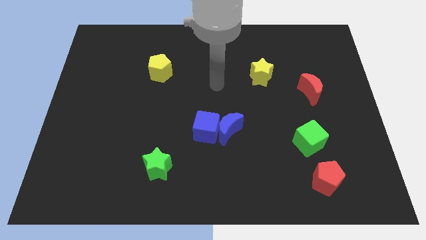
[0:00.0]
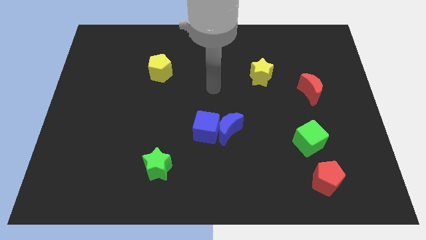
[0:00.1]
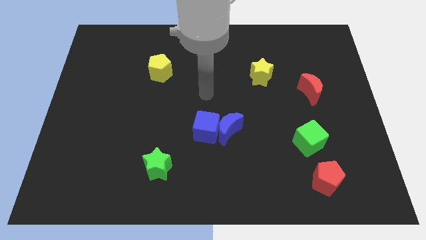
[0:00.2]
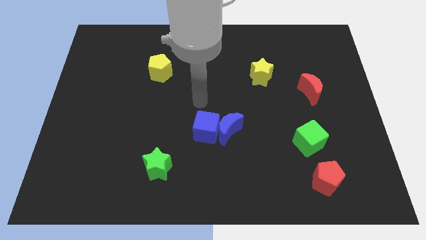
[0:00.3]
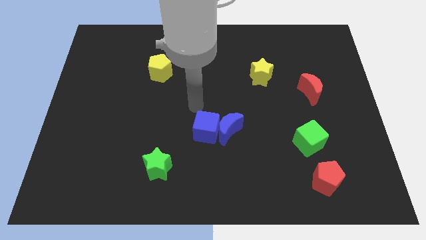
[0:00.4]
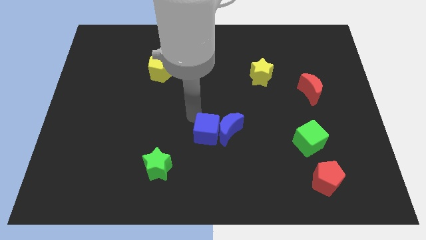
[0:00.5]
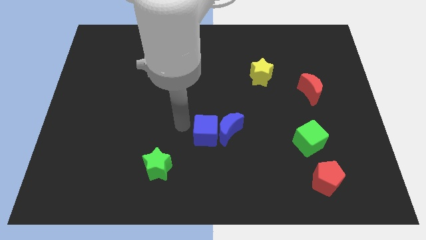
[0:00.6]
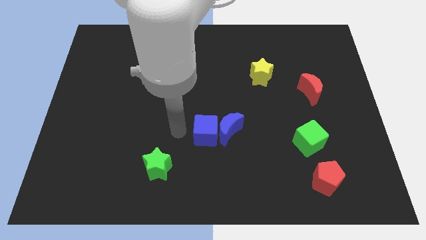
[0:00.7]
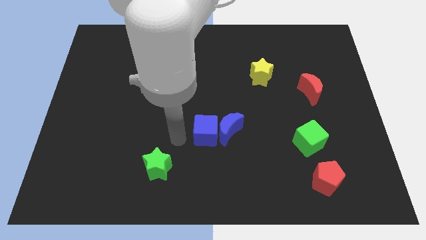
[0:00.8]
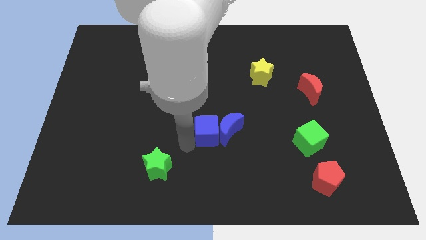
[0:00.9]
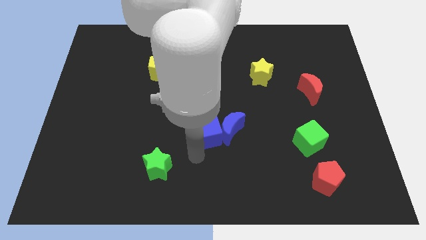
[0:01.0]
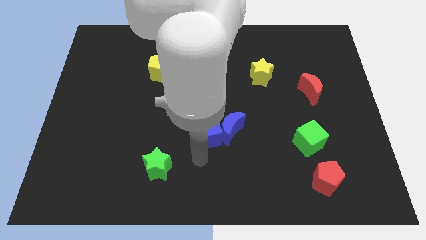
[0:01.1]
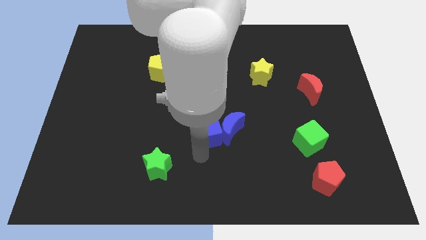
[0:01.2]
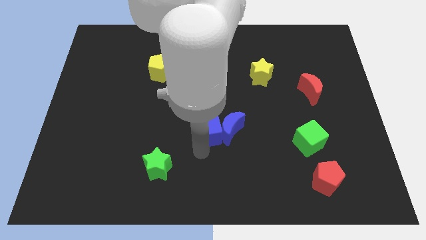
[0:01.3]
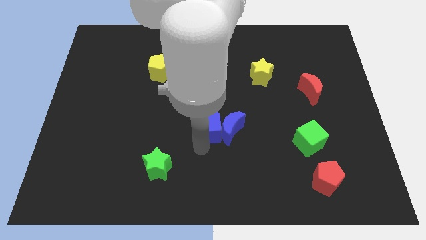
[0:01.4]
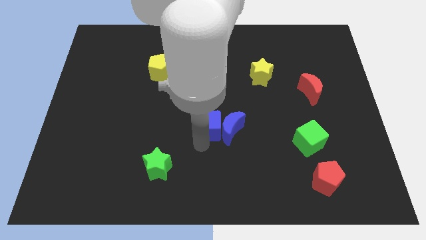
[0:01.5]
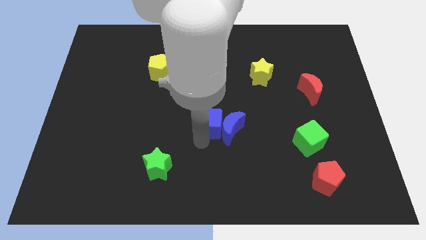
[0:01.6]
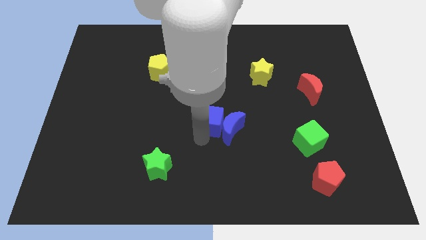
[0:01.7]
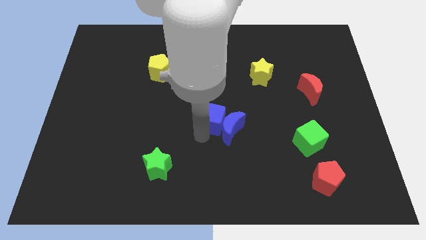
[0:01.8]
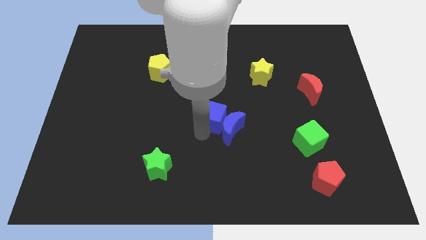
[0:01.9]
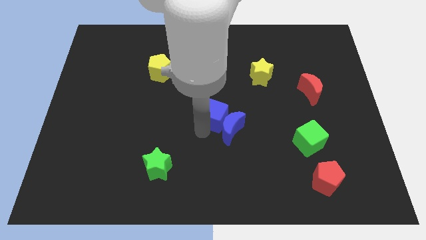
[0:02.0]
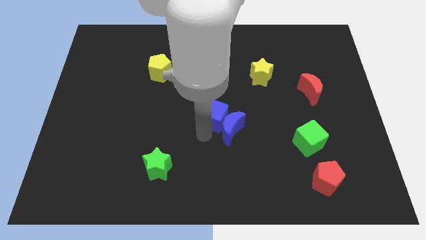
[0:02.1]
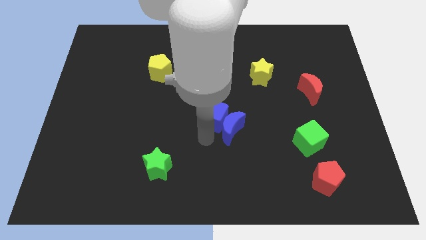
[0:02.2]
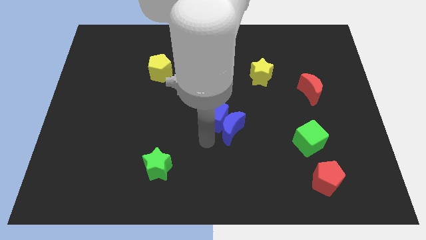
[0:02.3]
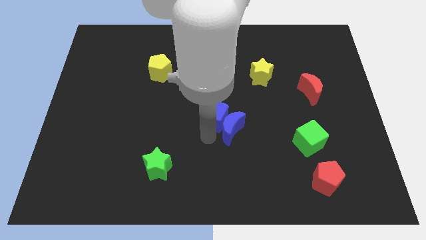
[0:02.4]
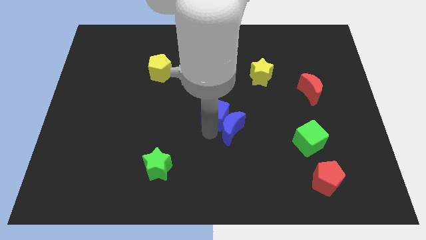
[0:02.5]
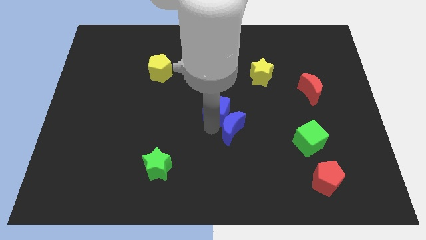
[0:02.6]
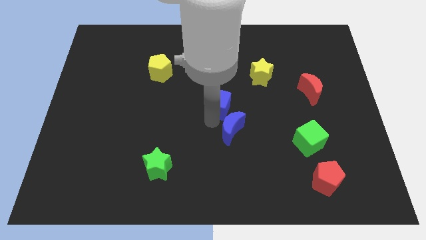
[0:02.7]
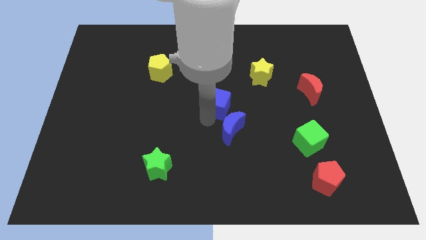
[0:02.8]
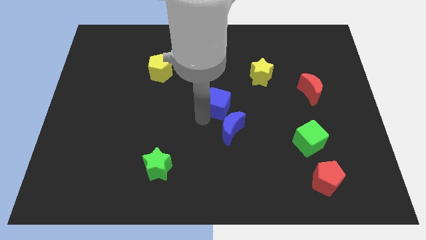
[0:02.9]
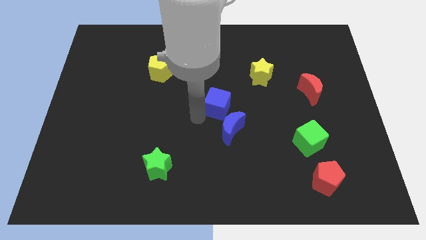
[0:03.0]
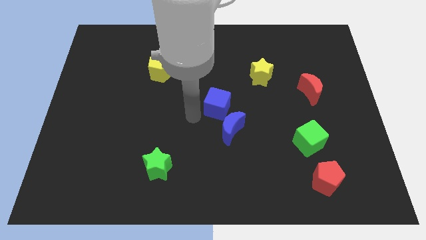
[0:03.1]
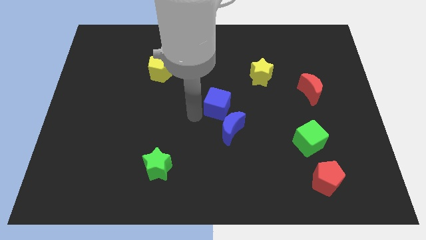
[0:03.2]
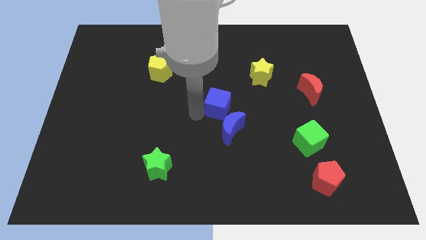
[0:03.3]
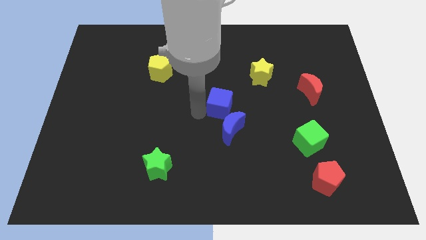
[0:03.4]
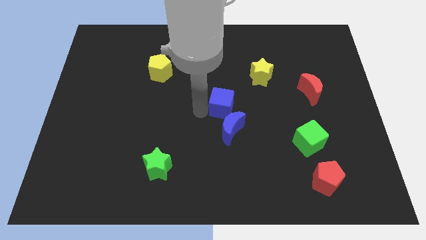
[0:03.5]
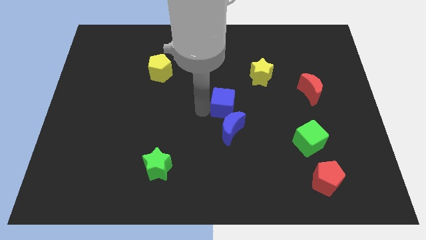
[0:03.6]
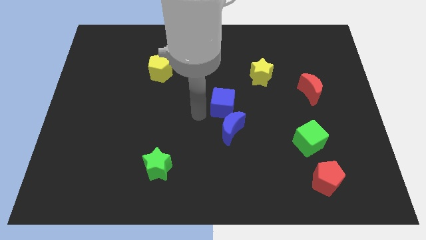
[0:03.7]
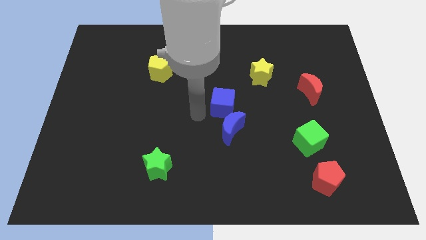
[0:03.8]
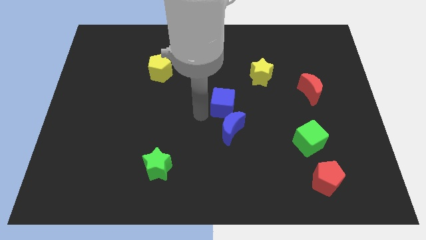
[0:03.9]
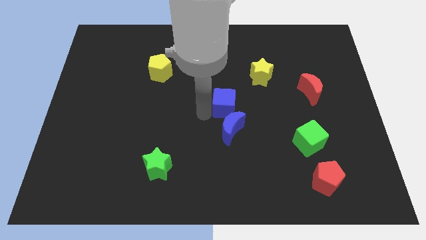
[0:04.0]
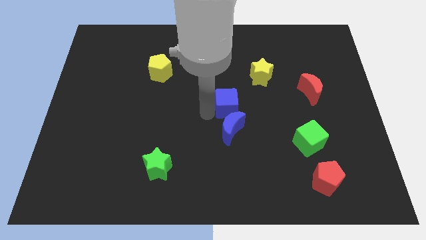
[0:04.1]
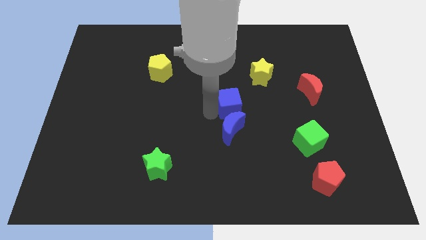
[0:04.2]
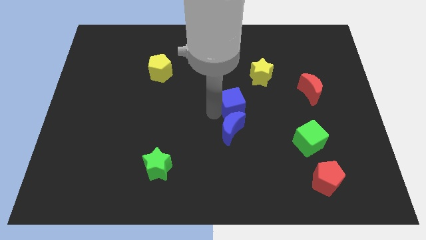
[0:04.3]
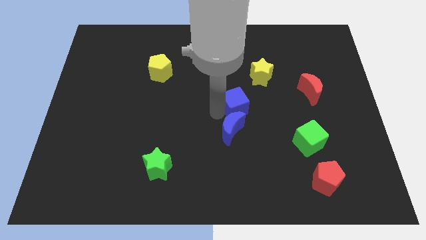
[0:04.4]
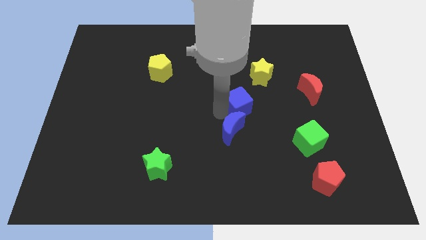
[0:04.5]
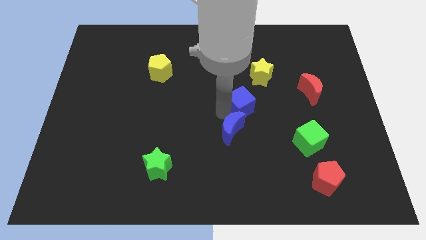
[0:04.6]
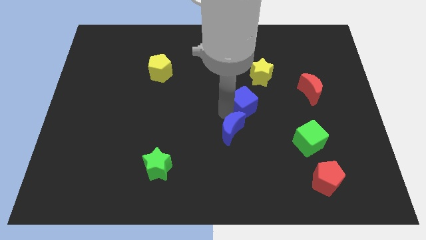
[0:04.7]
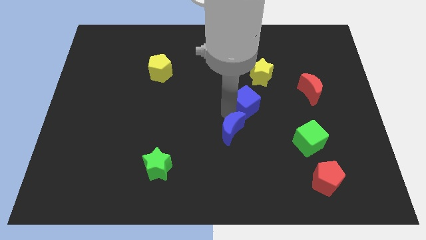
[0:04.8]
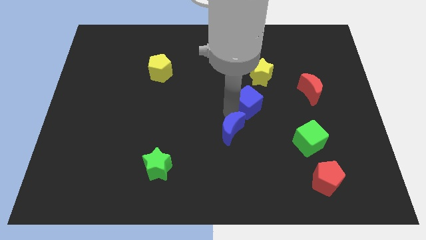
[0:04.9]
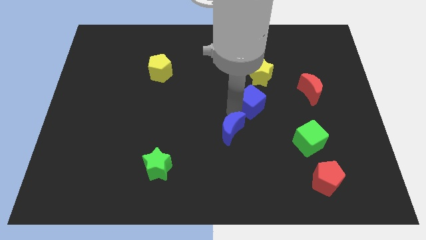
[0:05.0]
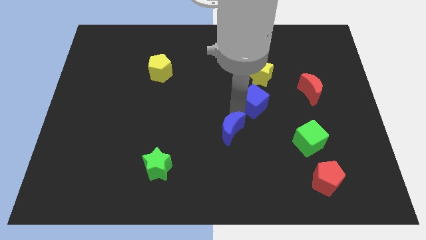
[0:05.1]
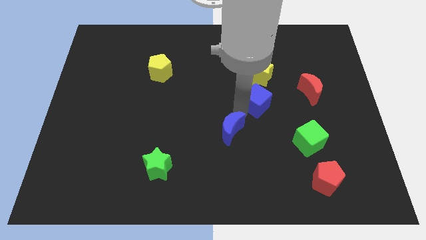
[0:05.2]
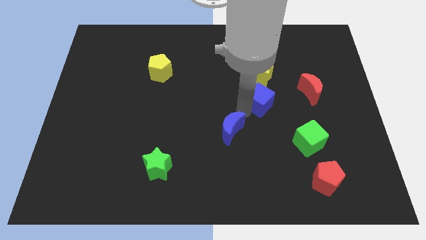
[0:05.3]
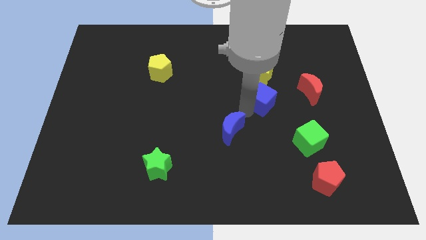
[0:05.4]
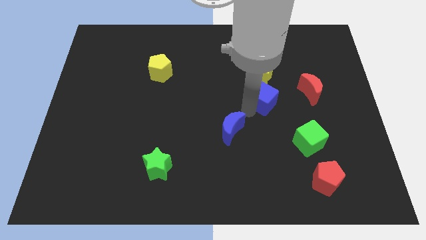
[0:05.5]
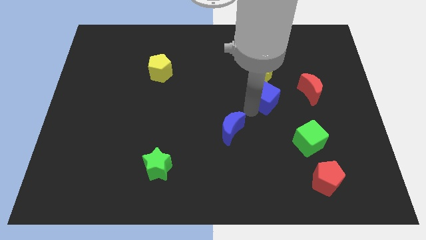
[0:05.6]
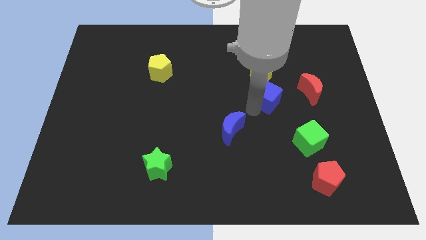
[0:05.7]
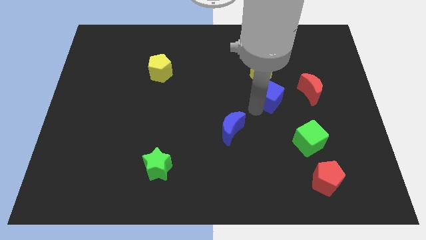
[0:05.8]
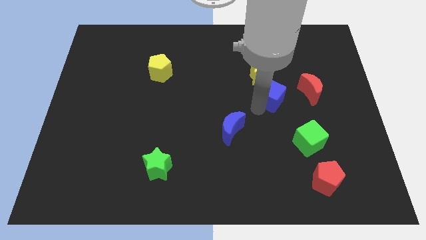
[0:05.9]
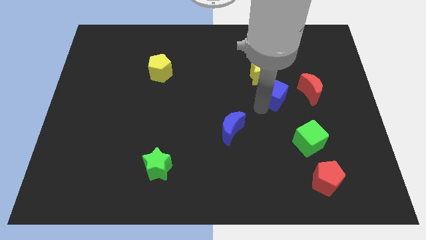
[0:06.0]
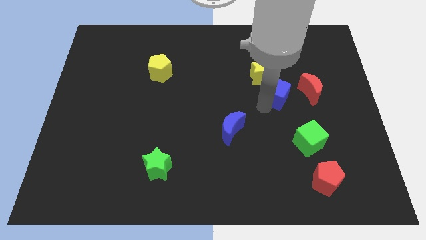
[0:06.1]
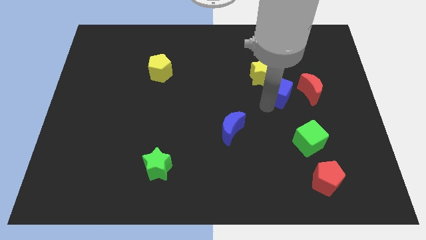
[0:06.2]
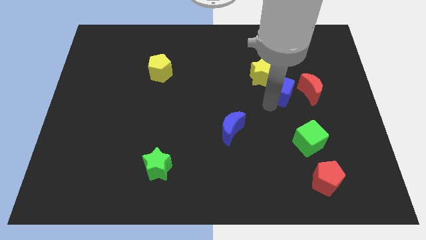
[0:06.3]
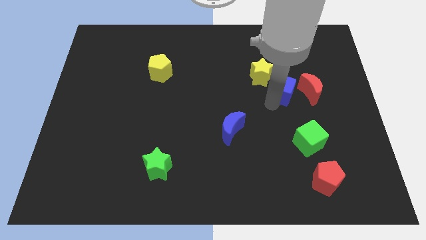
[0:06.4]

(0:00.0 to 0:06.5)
move the blue cube upwards and right

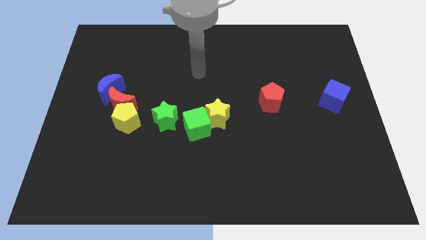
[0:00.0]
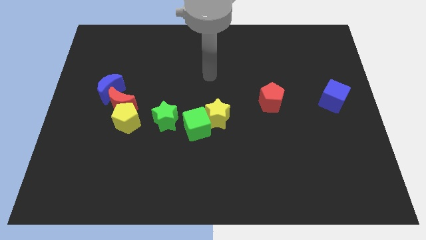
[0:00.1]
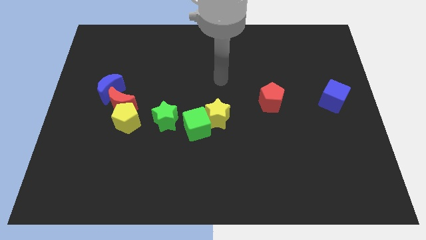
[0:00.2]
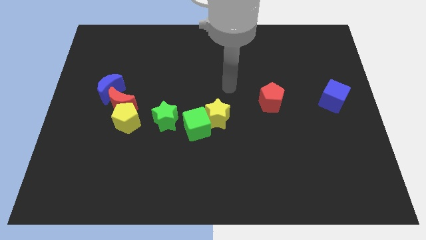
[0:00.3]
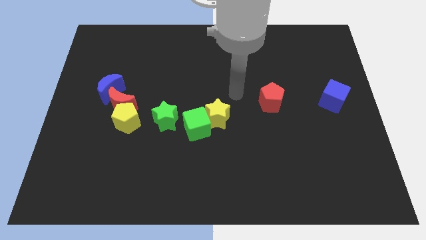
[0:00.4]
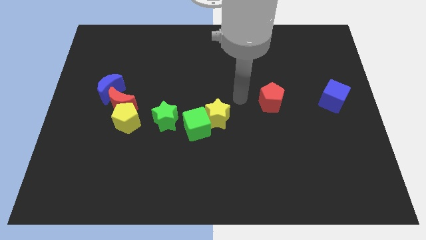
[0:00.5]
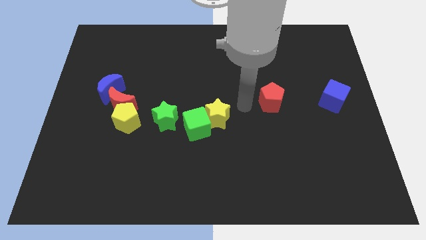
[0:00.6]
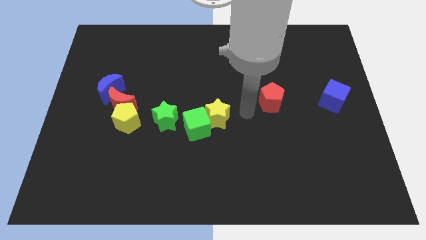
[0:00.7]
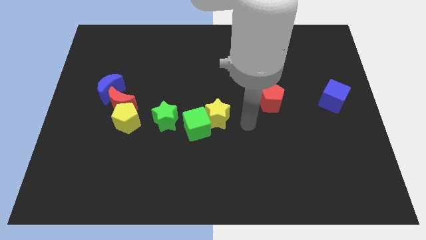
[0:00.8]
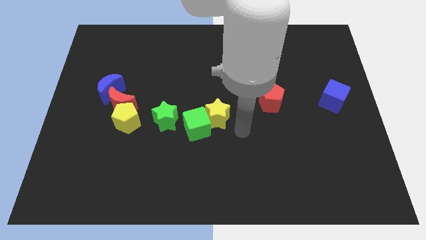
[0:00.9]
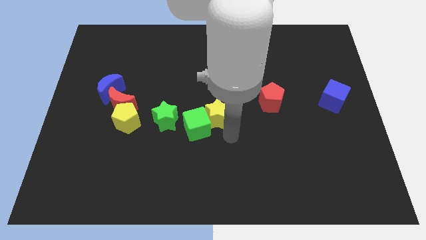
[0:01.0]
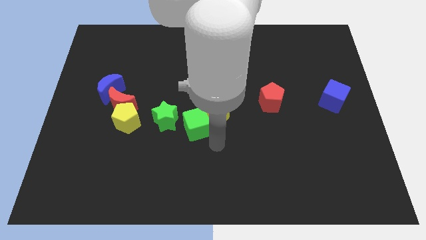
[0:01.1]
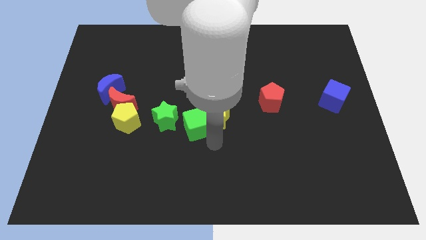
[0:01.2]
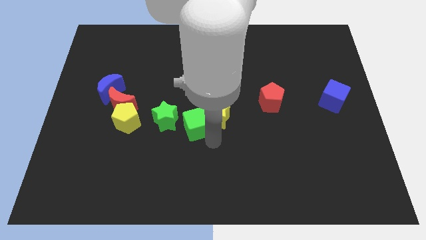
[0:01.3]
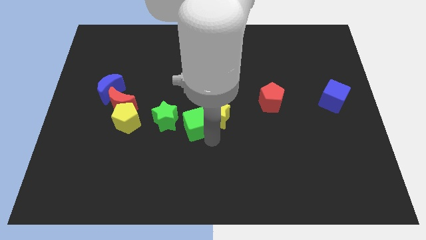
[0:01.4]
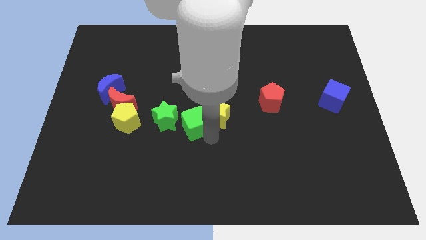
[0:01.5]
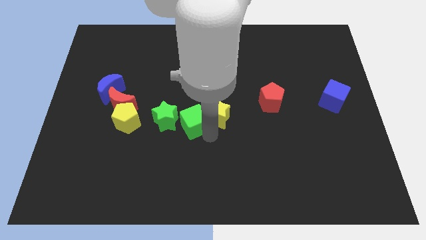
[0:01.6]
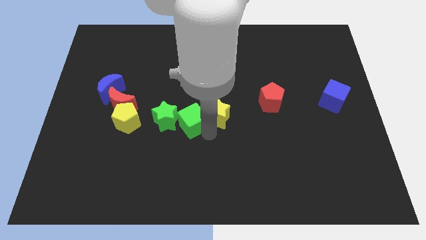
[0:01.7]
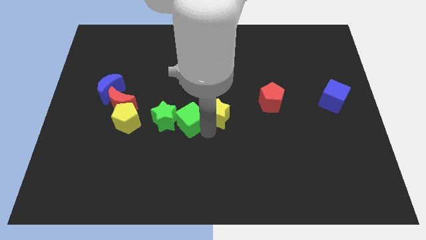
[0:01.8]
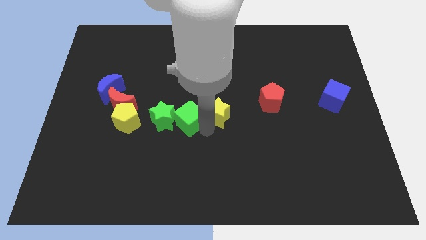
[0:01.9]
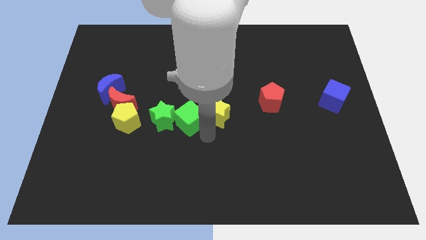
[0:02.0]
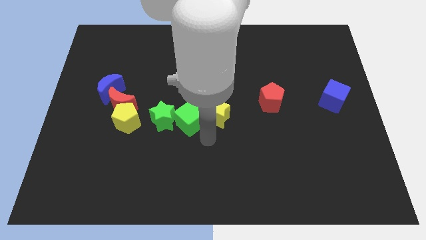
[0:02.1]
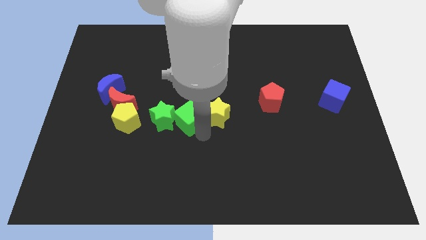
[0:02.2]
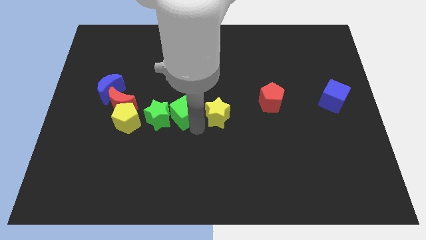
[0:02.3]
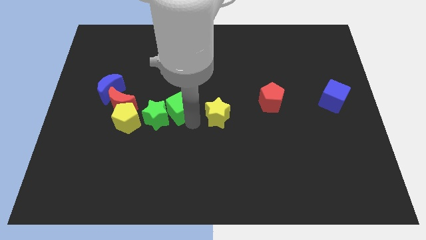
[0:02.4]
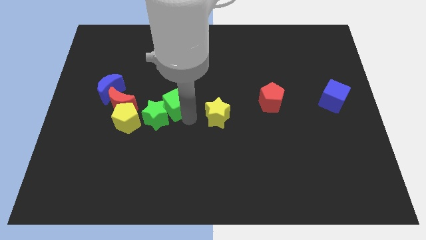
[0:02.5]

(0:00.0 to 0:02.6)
push the green cube up and then left slightly
